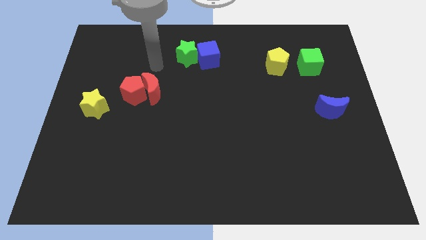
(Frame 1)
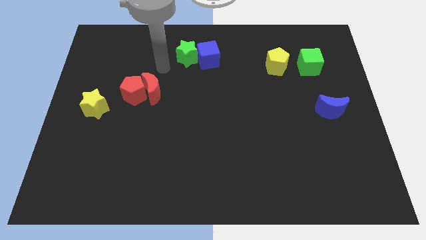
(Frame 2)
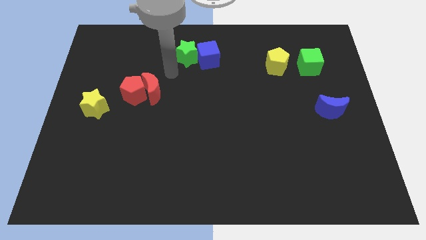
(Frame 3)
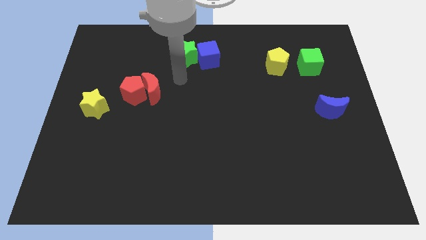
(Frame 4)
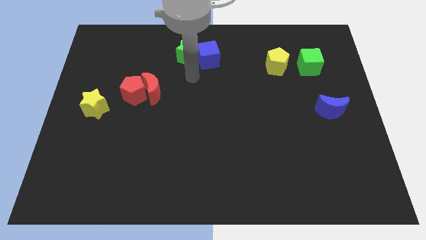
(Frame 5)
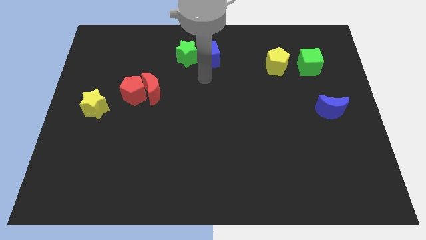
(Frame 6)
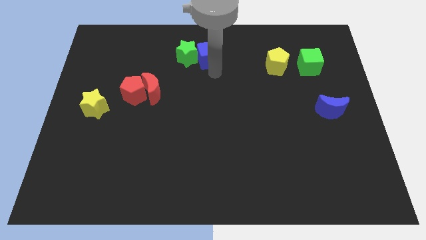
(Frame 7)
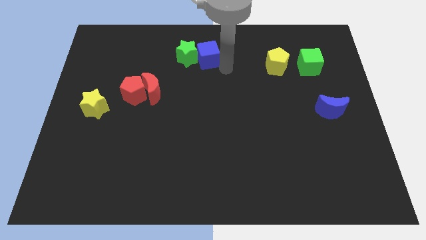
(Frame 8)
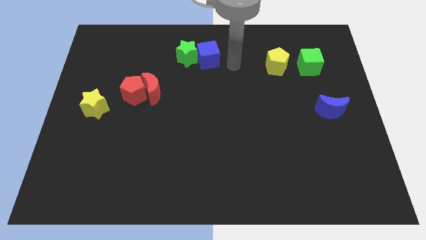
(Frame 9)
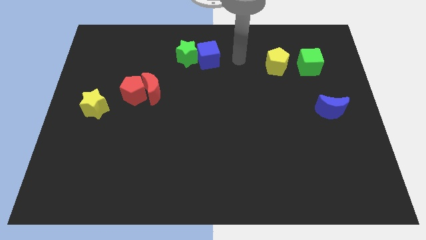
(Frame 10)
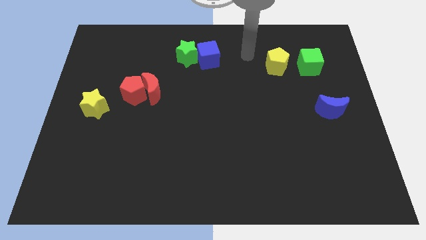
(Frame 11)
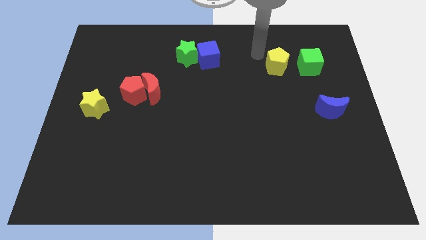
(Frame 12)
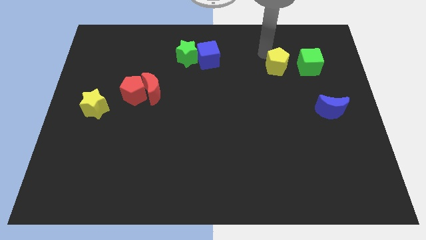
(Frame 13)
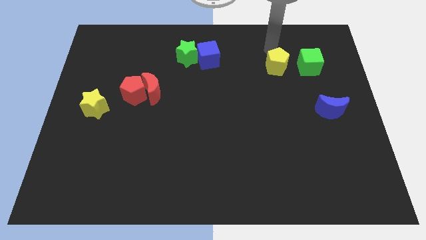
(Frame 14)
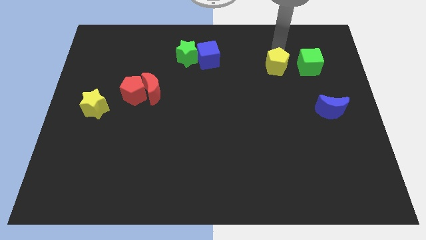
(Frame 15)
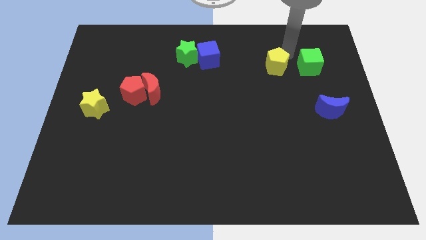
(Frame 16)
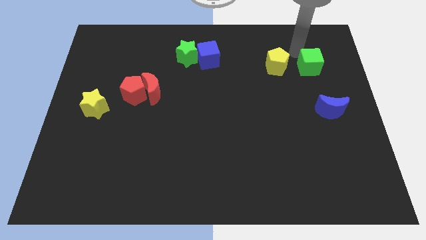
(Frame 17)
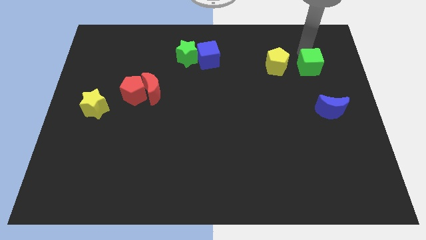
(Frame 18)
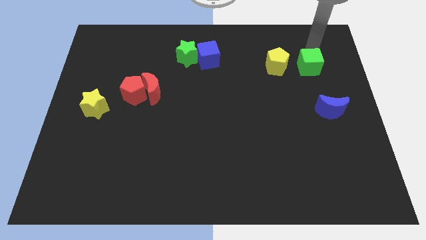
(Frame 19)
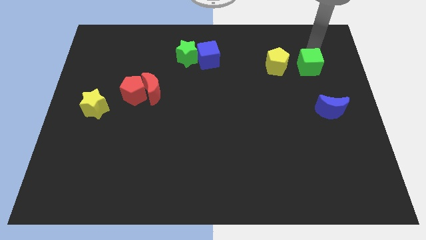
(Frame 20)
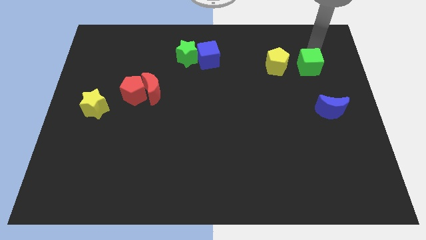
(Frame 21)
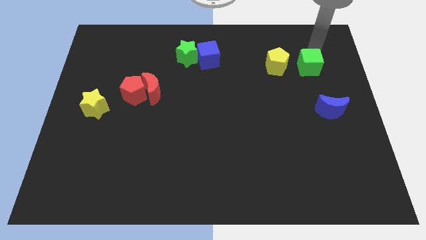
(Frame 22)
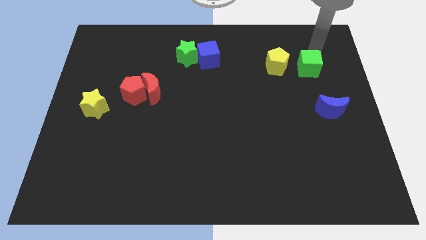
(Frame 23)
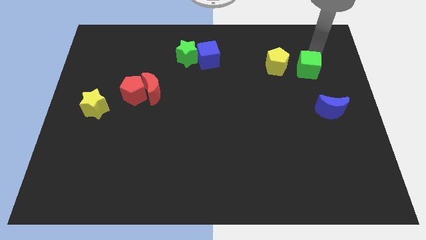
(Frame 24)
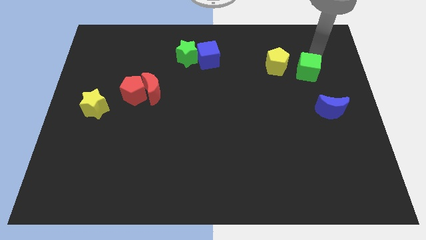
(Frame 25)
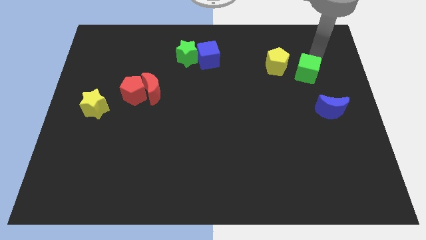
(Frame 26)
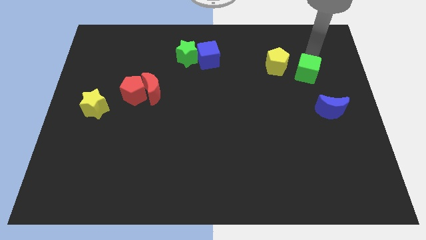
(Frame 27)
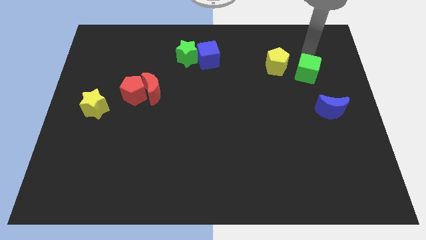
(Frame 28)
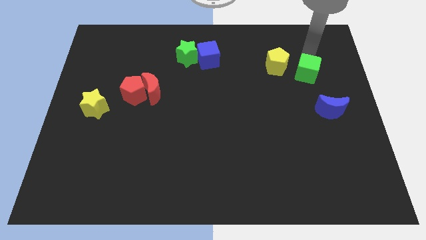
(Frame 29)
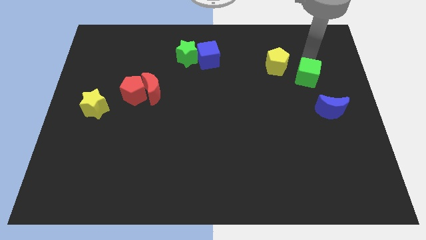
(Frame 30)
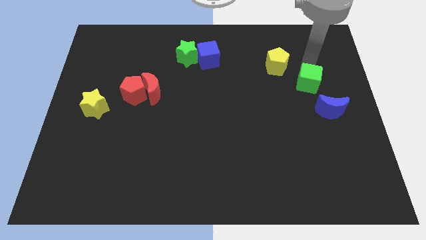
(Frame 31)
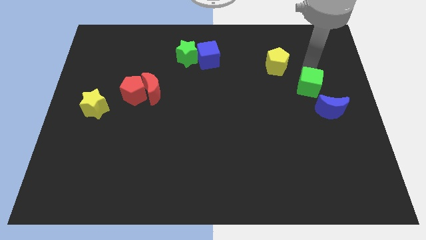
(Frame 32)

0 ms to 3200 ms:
slightly slide the green cube downwards

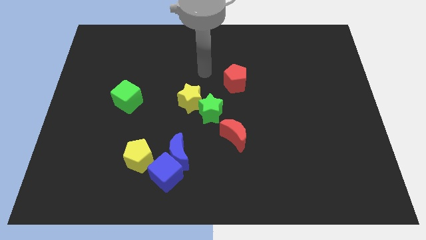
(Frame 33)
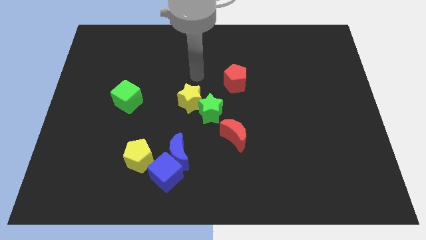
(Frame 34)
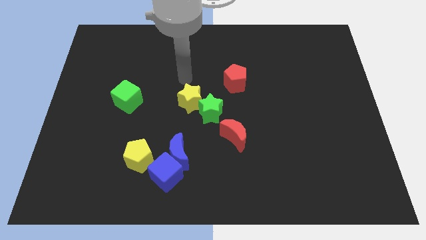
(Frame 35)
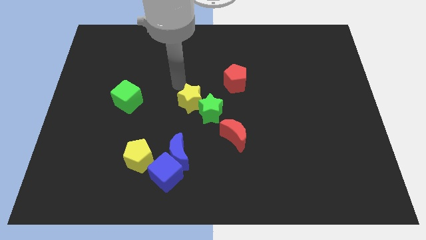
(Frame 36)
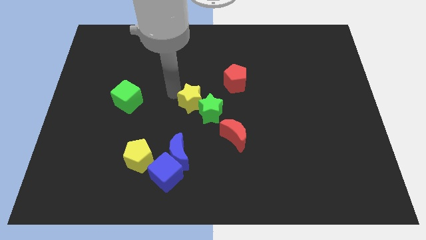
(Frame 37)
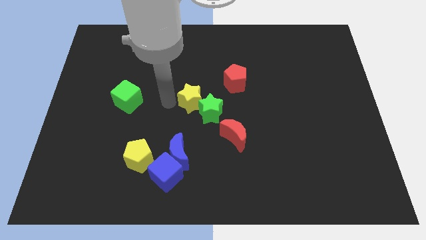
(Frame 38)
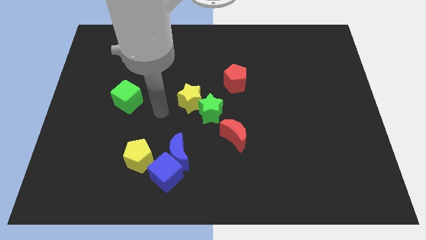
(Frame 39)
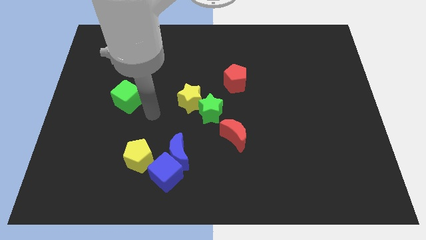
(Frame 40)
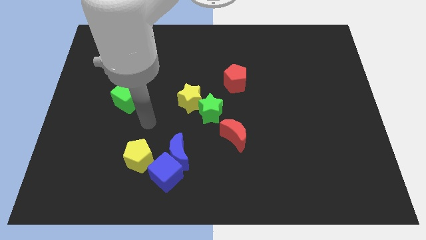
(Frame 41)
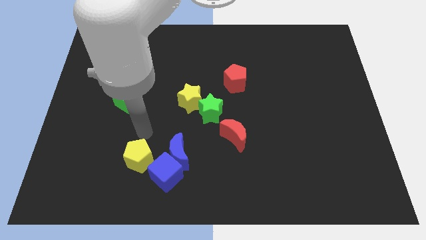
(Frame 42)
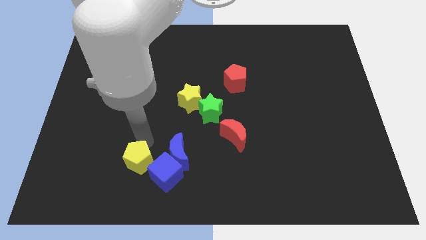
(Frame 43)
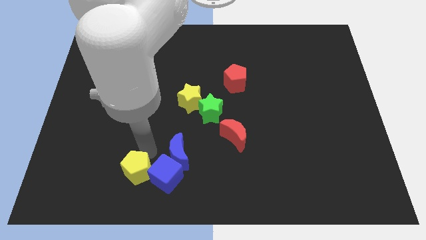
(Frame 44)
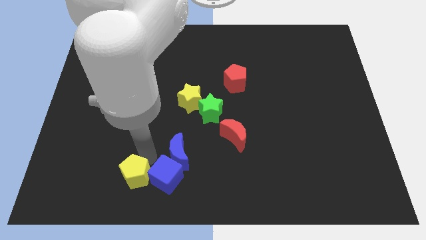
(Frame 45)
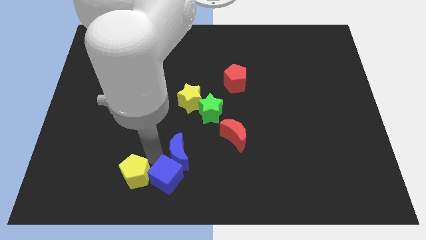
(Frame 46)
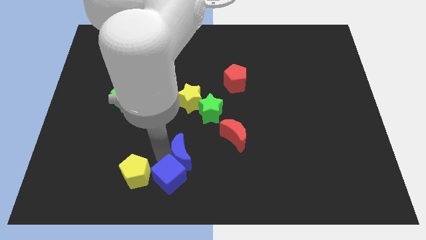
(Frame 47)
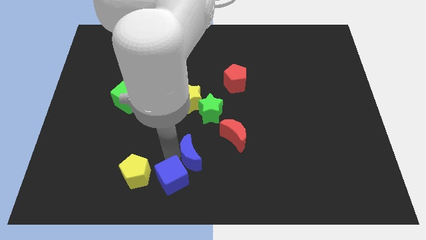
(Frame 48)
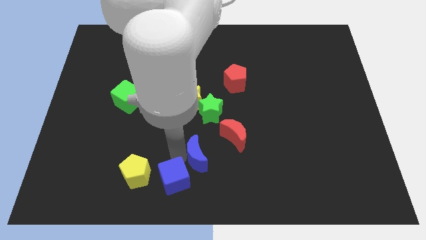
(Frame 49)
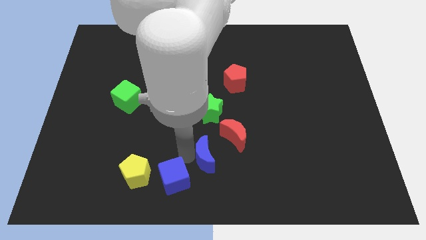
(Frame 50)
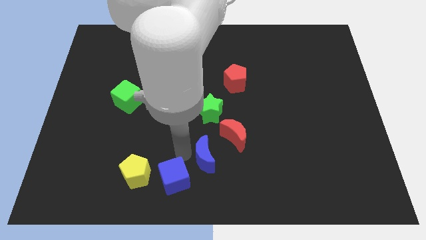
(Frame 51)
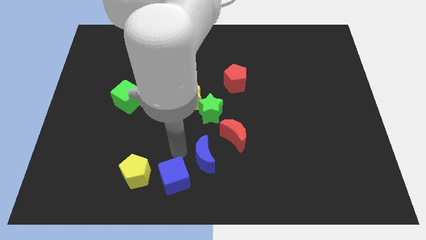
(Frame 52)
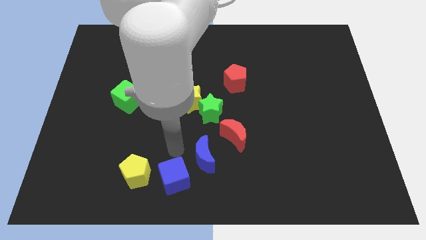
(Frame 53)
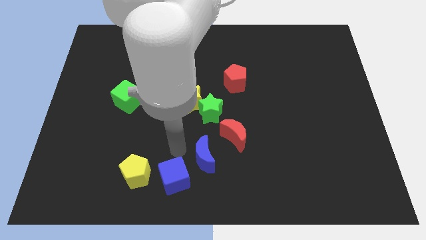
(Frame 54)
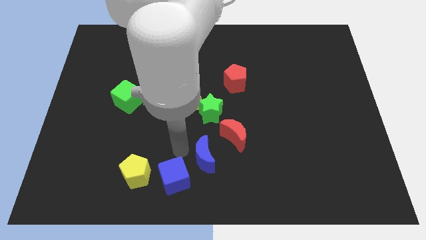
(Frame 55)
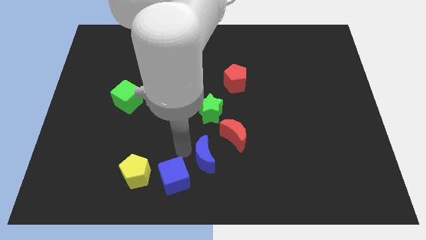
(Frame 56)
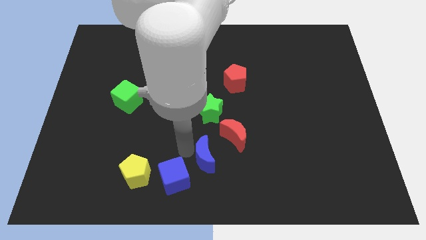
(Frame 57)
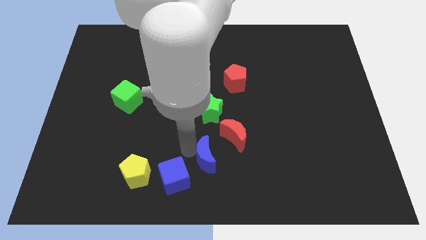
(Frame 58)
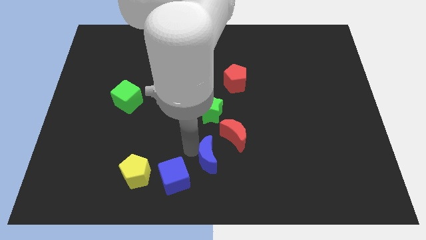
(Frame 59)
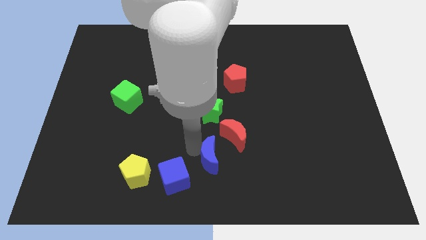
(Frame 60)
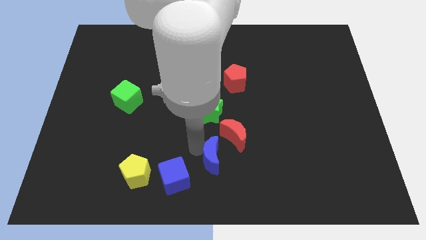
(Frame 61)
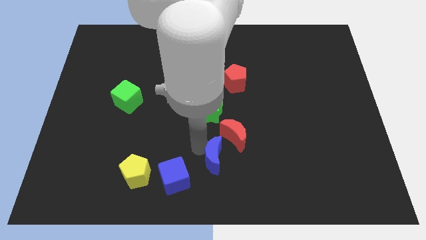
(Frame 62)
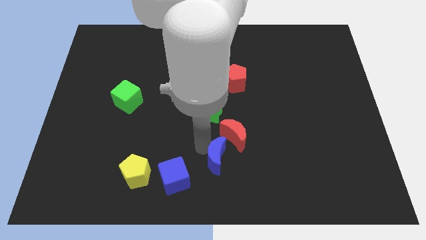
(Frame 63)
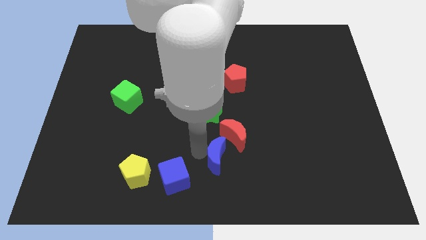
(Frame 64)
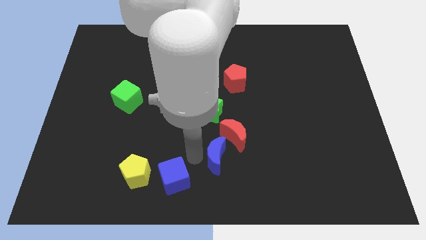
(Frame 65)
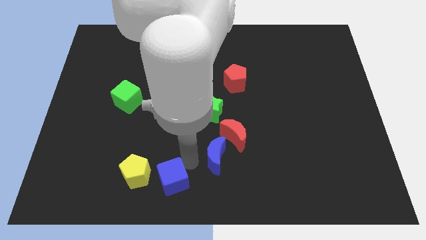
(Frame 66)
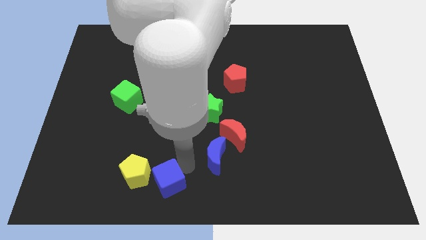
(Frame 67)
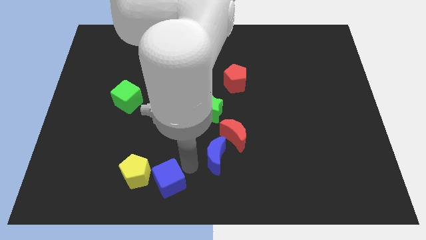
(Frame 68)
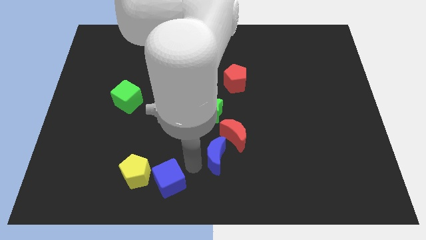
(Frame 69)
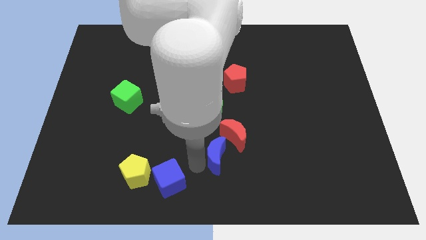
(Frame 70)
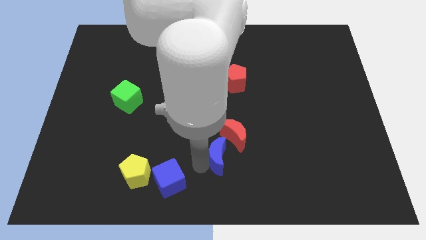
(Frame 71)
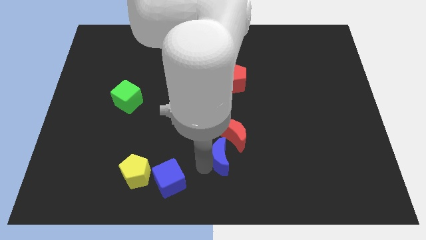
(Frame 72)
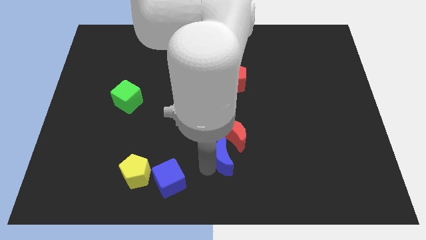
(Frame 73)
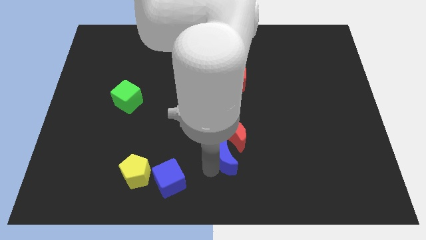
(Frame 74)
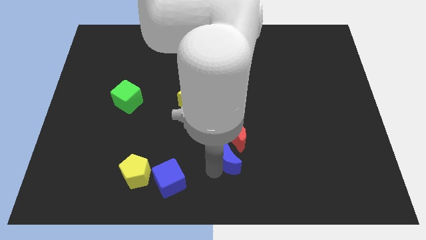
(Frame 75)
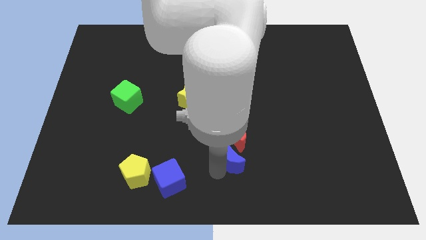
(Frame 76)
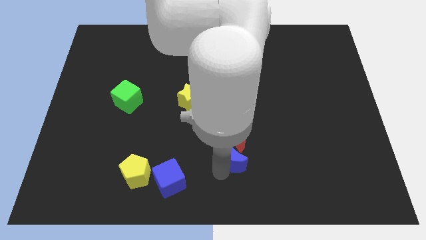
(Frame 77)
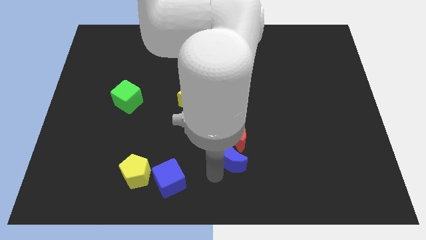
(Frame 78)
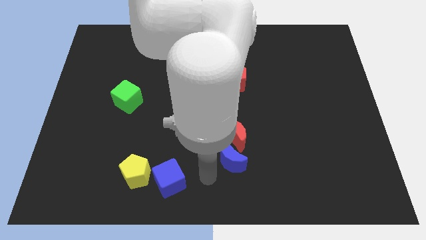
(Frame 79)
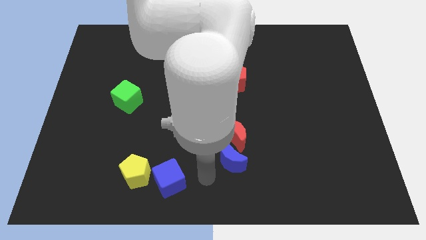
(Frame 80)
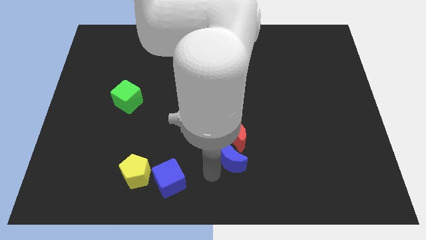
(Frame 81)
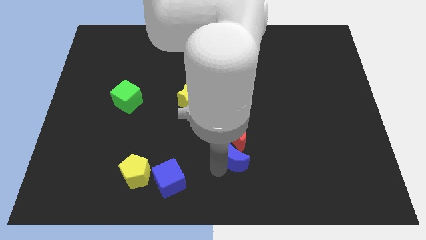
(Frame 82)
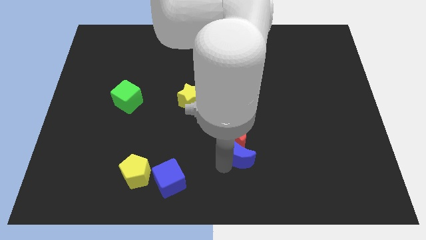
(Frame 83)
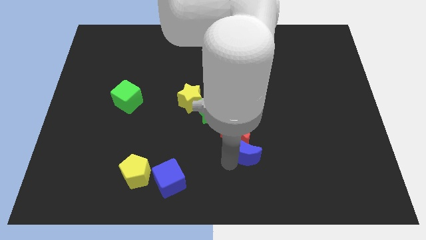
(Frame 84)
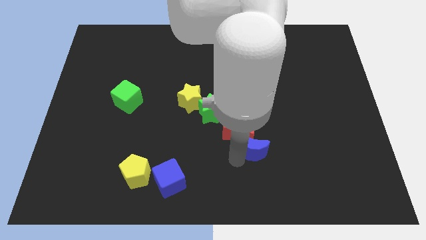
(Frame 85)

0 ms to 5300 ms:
move the blue moon diagonally upwards and to the right a bit
